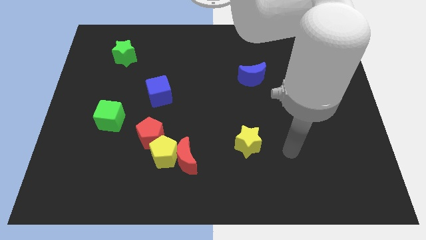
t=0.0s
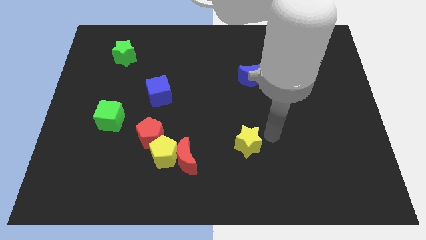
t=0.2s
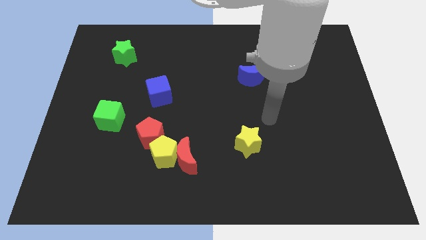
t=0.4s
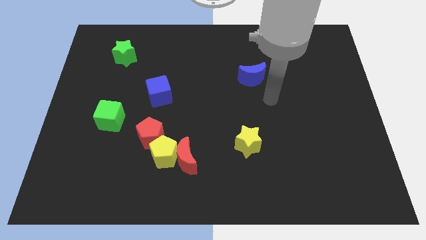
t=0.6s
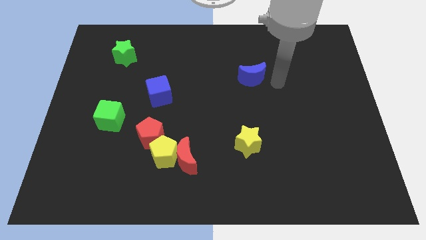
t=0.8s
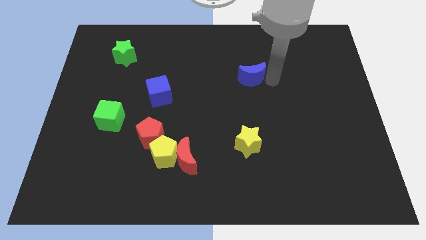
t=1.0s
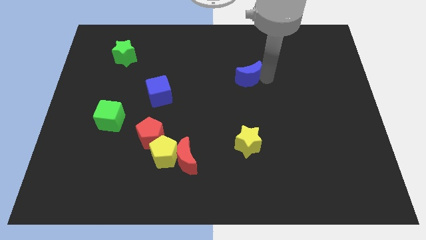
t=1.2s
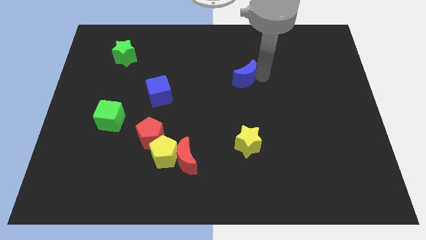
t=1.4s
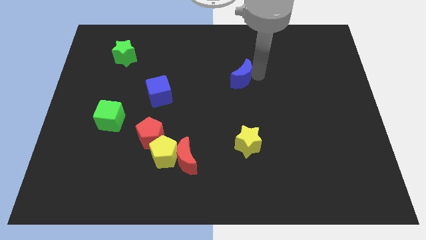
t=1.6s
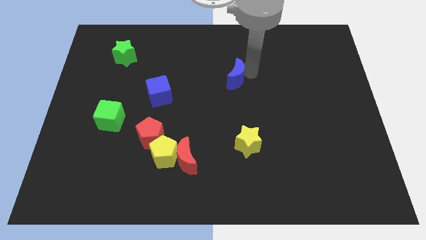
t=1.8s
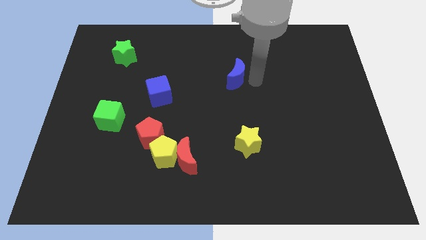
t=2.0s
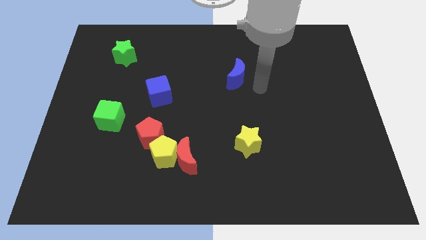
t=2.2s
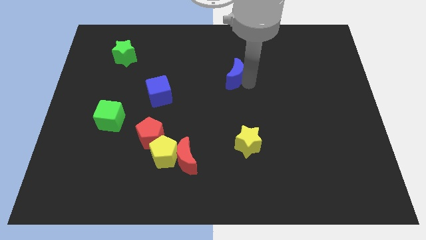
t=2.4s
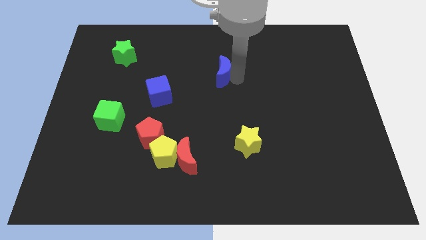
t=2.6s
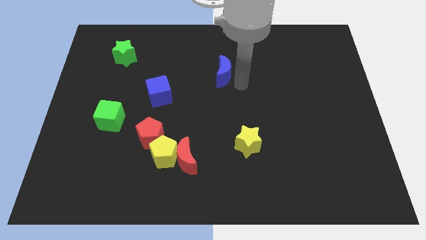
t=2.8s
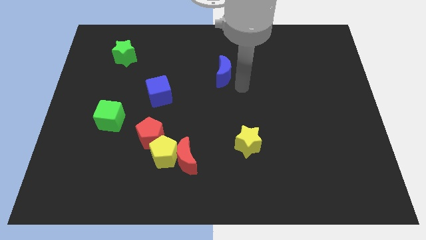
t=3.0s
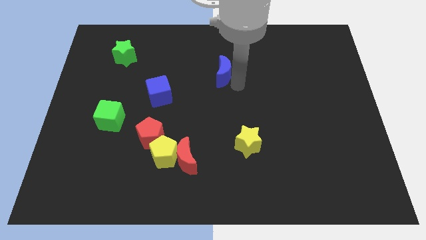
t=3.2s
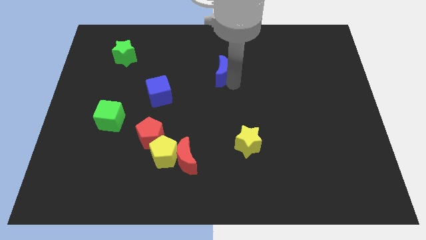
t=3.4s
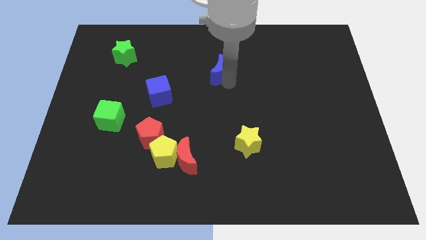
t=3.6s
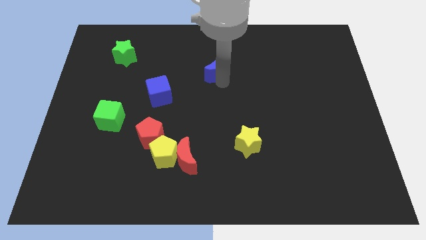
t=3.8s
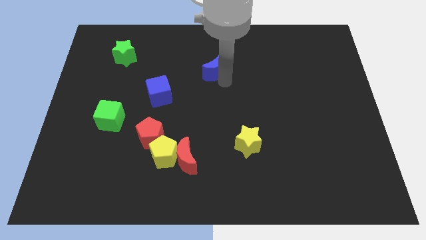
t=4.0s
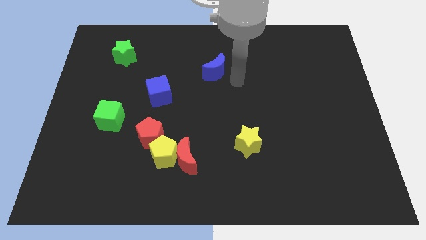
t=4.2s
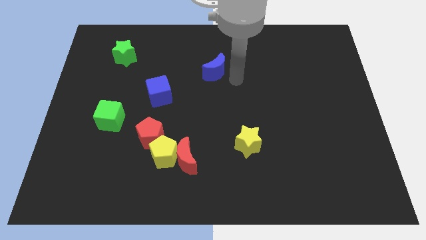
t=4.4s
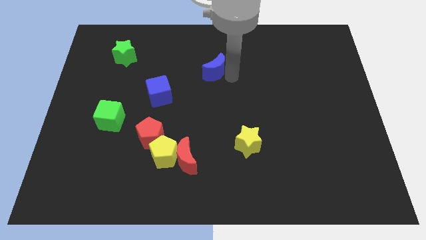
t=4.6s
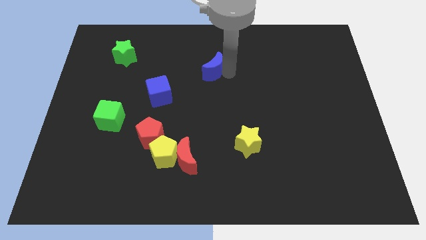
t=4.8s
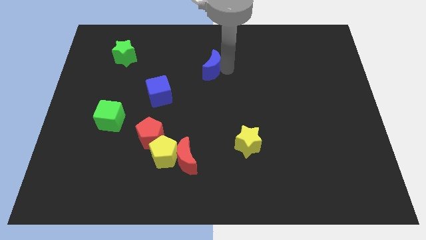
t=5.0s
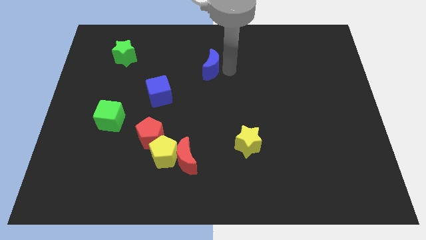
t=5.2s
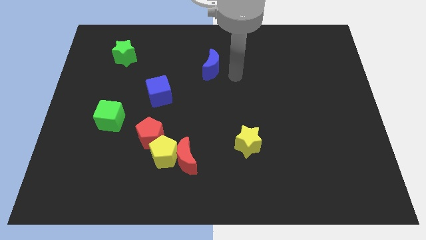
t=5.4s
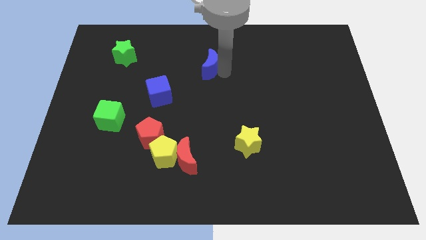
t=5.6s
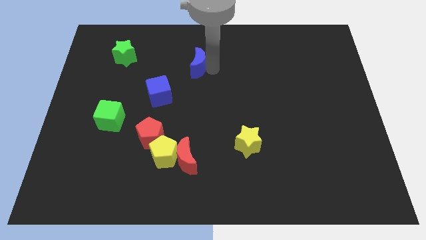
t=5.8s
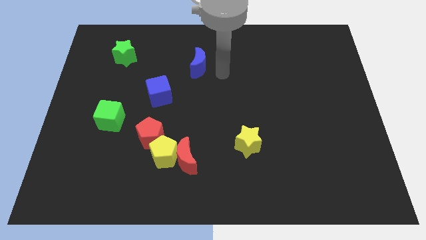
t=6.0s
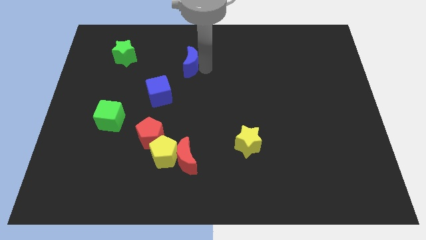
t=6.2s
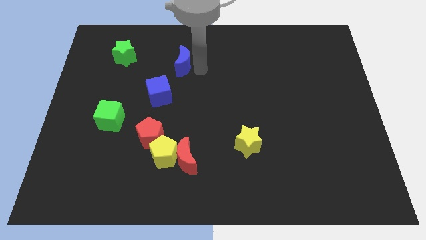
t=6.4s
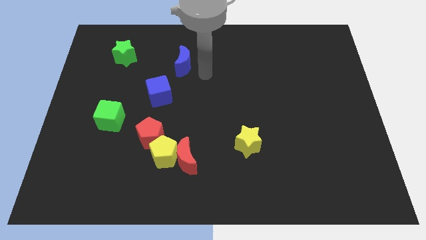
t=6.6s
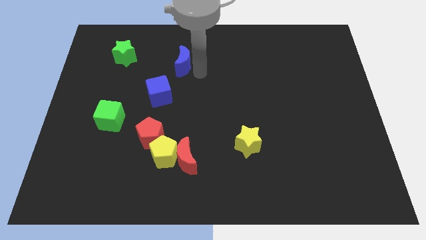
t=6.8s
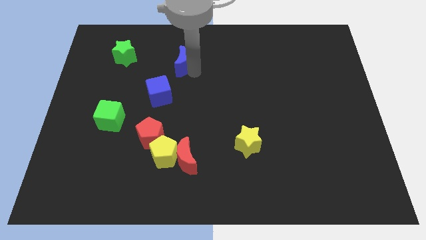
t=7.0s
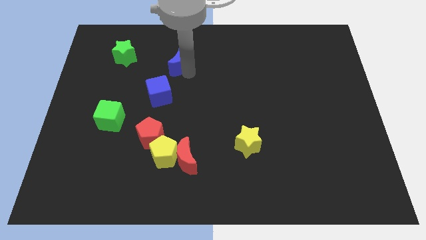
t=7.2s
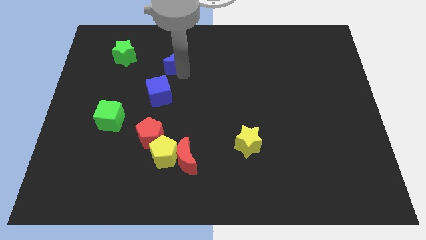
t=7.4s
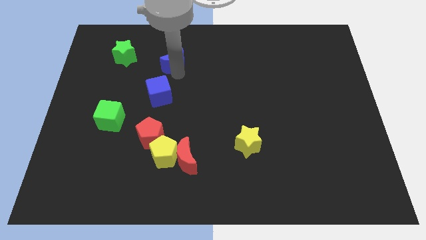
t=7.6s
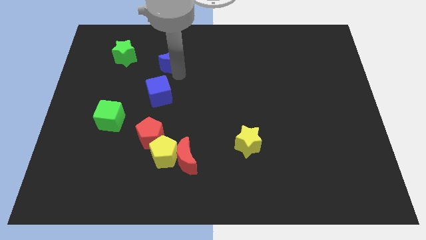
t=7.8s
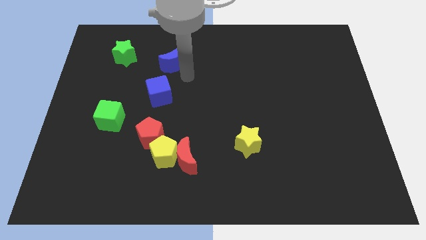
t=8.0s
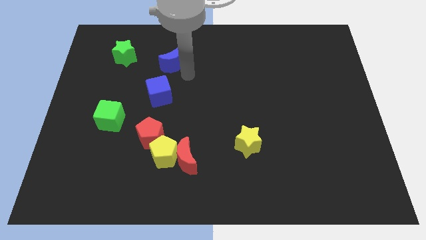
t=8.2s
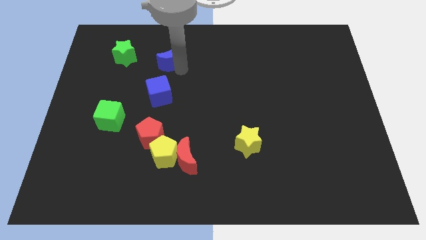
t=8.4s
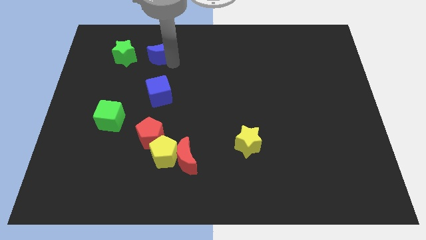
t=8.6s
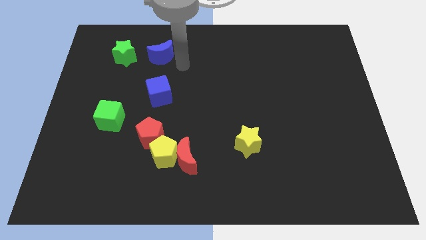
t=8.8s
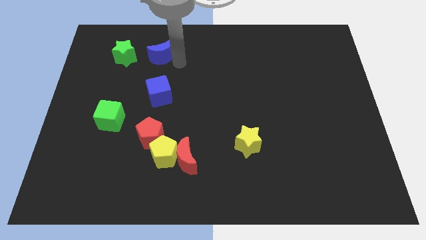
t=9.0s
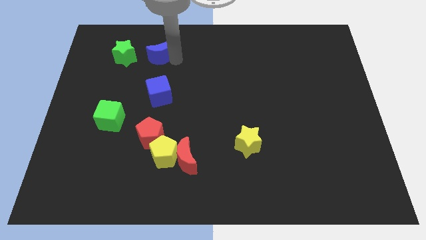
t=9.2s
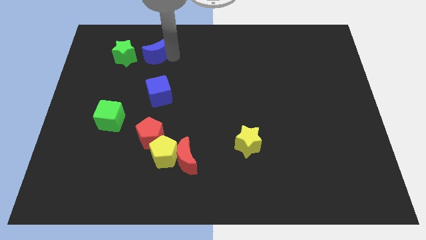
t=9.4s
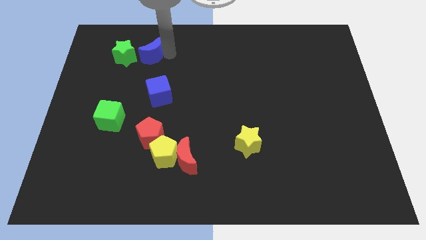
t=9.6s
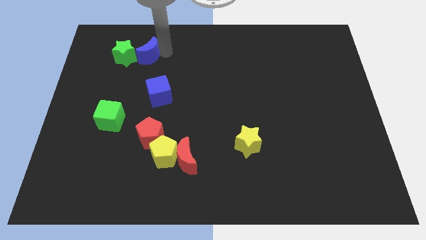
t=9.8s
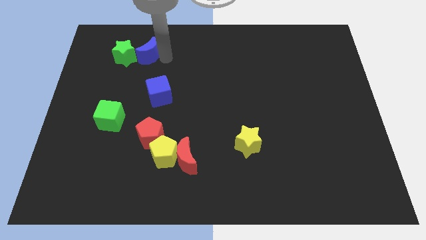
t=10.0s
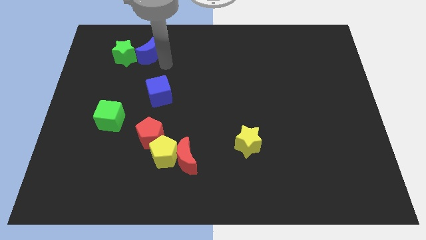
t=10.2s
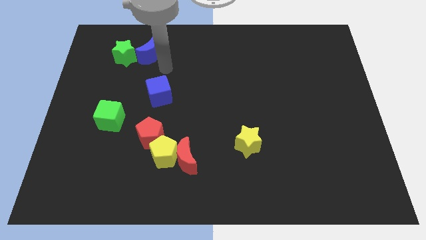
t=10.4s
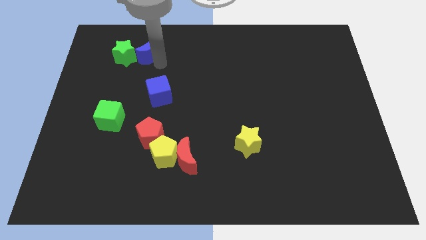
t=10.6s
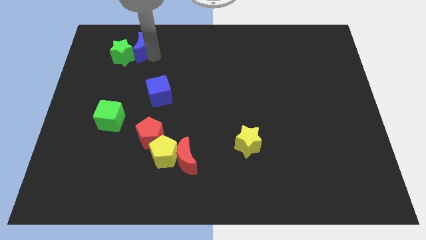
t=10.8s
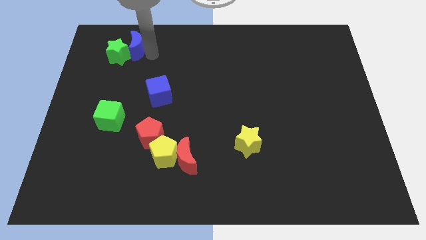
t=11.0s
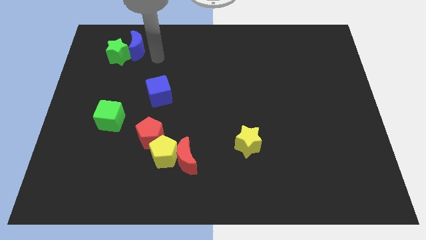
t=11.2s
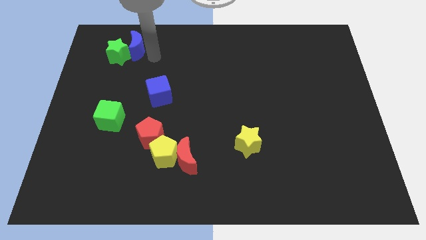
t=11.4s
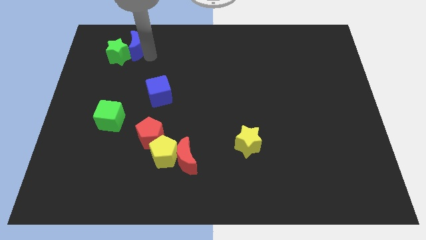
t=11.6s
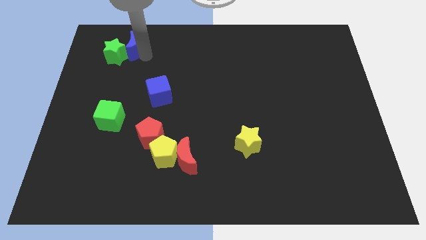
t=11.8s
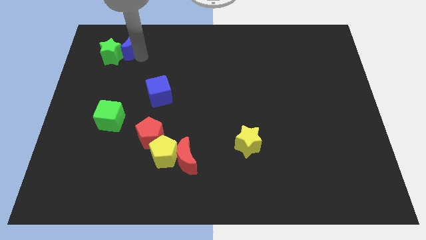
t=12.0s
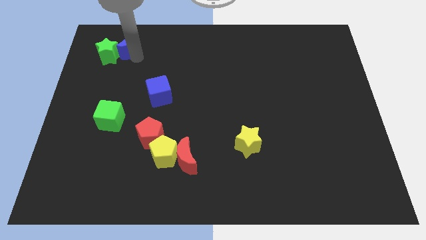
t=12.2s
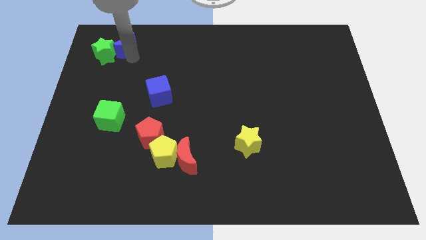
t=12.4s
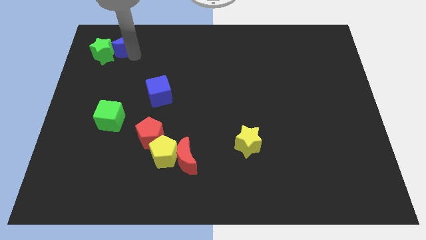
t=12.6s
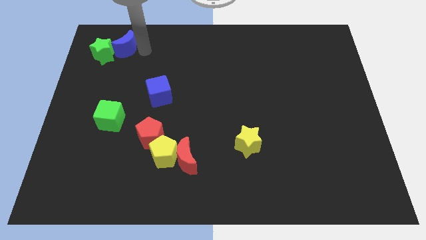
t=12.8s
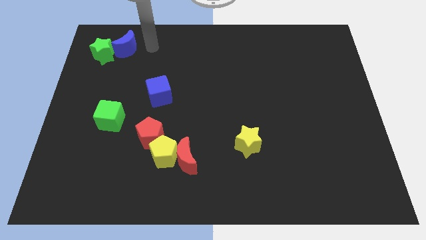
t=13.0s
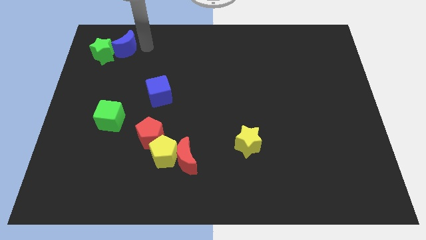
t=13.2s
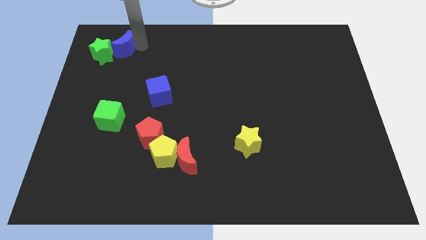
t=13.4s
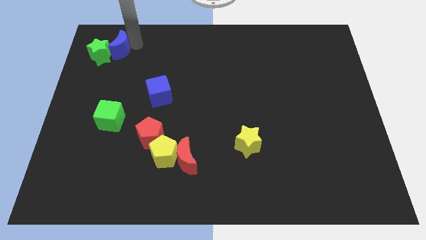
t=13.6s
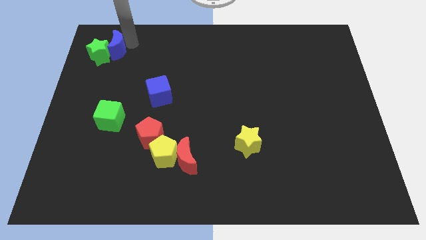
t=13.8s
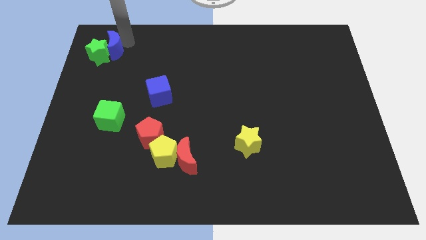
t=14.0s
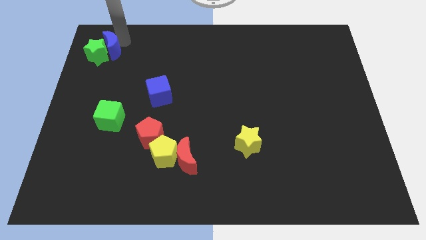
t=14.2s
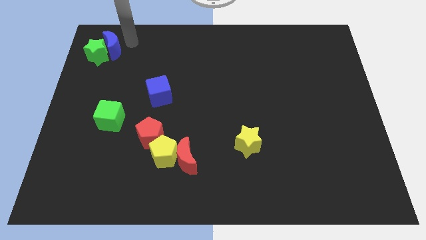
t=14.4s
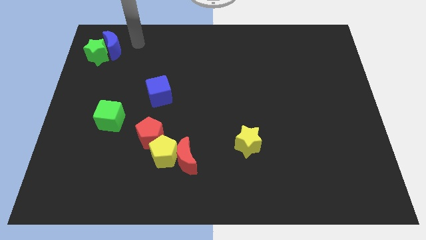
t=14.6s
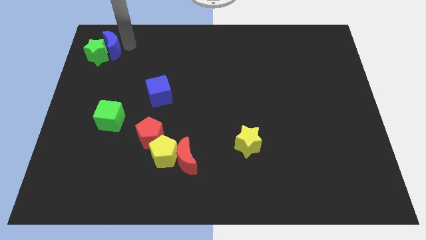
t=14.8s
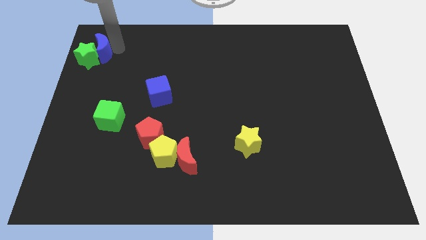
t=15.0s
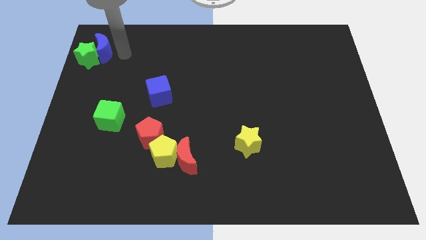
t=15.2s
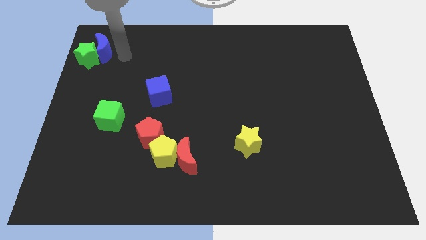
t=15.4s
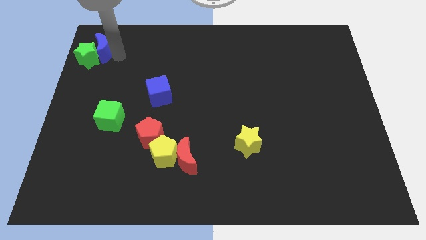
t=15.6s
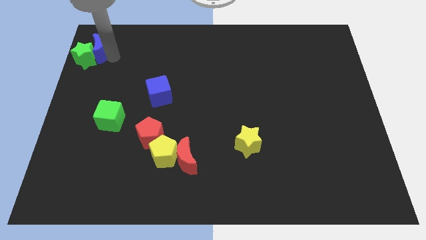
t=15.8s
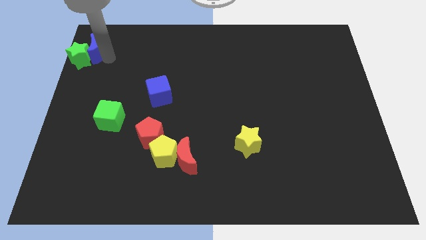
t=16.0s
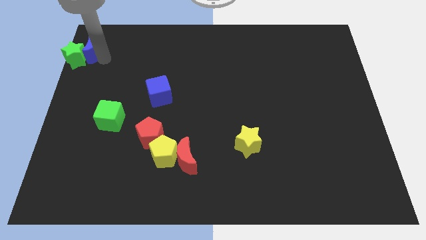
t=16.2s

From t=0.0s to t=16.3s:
move the blue moon to the top left
